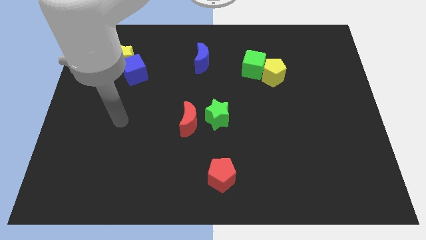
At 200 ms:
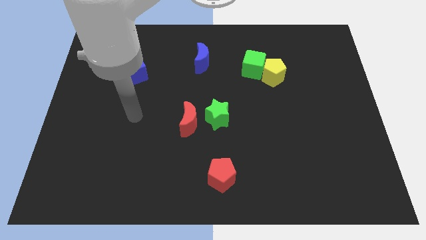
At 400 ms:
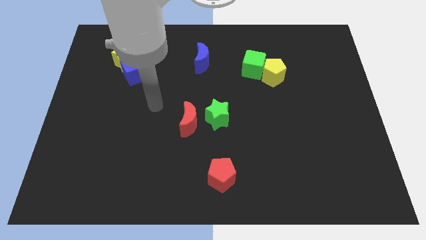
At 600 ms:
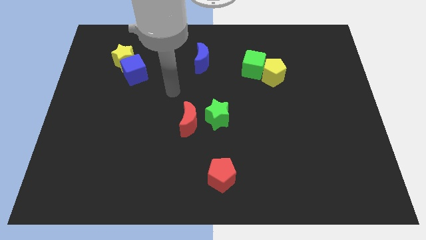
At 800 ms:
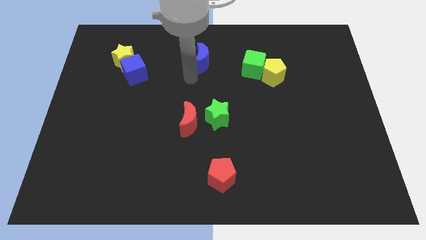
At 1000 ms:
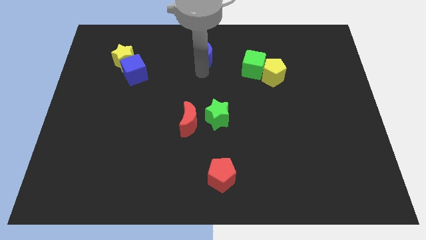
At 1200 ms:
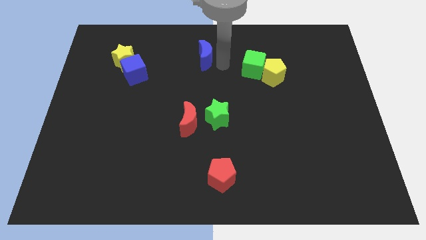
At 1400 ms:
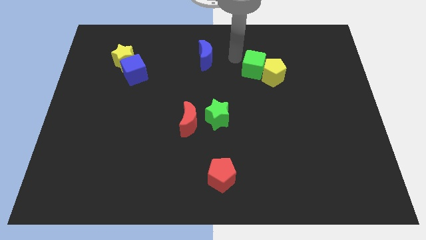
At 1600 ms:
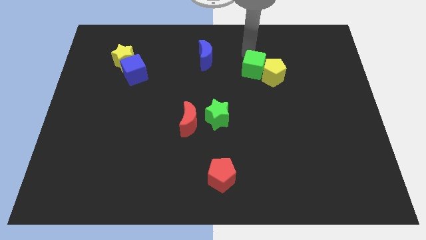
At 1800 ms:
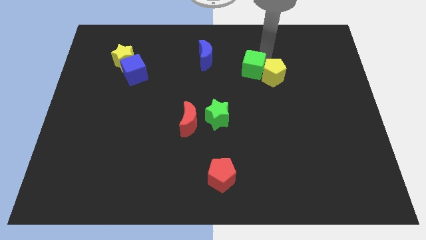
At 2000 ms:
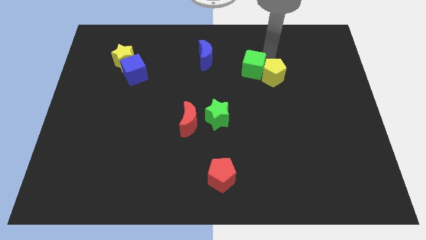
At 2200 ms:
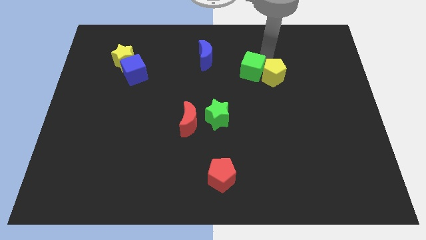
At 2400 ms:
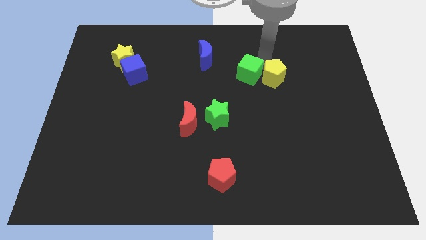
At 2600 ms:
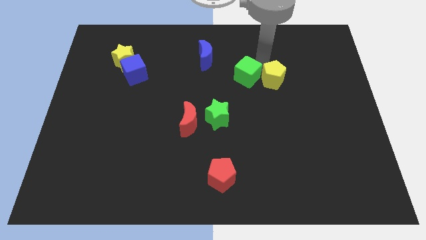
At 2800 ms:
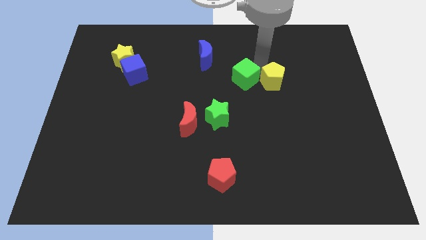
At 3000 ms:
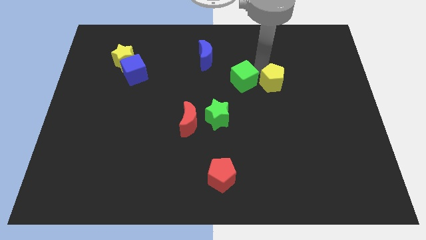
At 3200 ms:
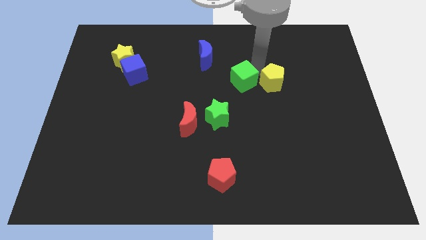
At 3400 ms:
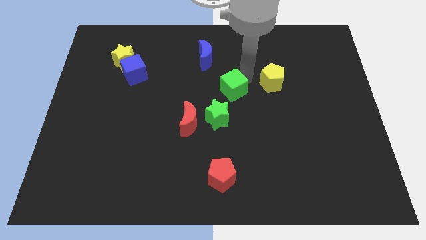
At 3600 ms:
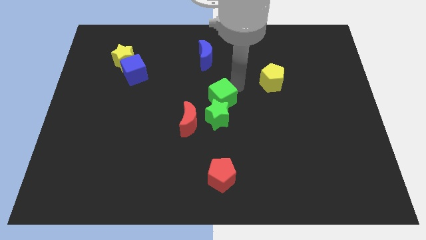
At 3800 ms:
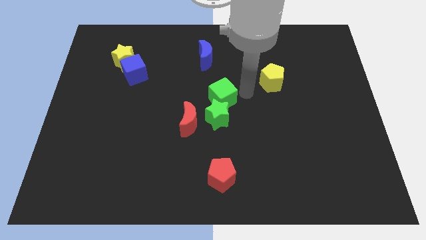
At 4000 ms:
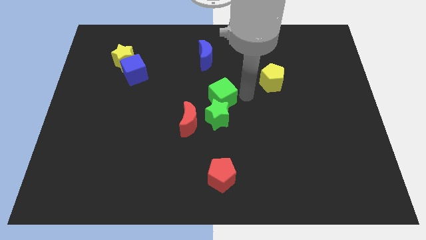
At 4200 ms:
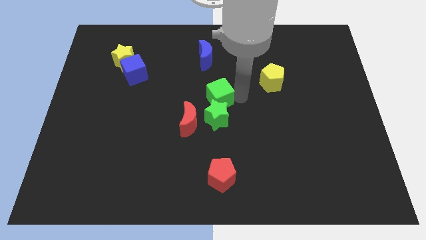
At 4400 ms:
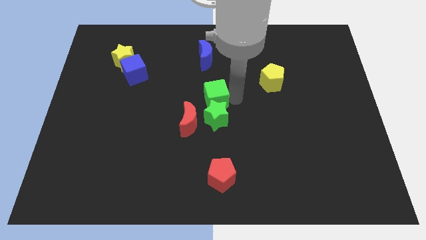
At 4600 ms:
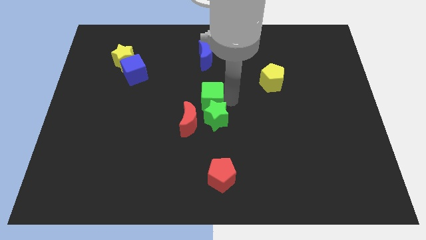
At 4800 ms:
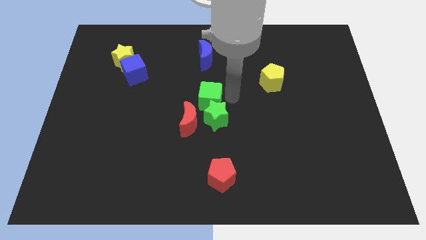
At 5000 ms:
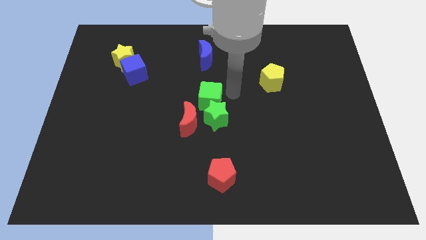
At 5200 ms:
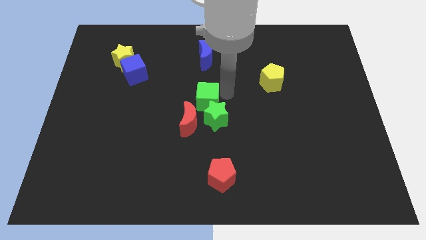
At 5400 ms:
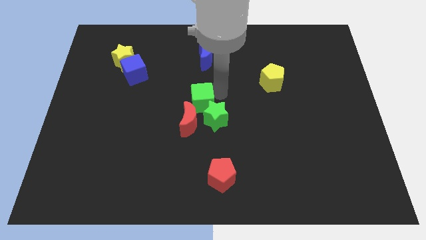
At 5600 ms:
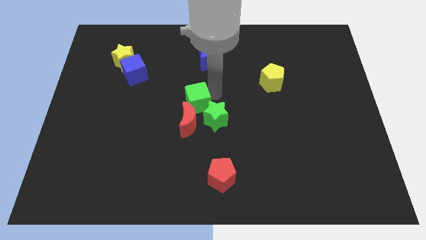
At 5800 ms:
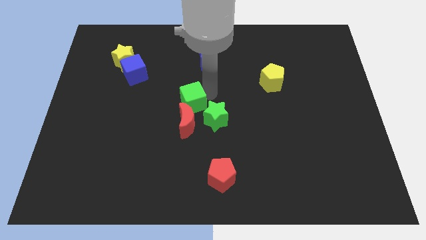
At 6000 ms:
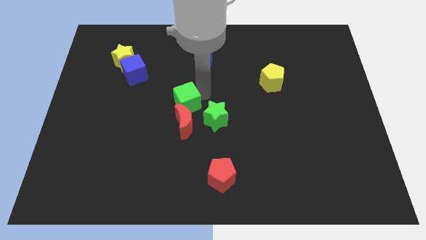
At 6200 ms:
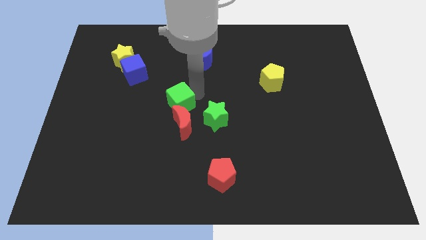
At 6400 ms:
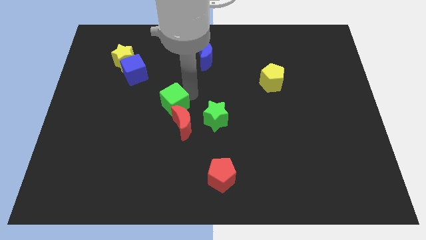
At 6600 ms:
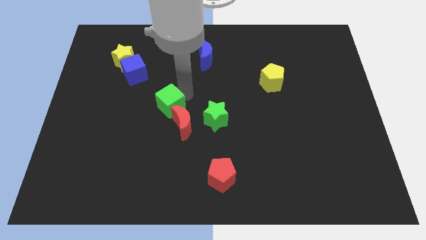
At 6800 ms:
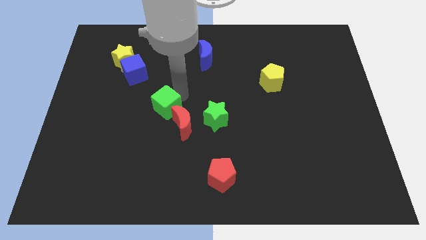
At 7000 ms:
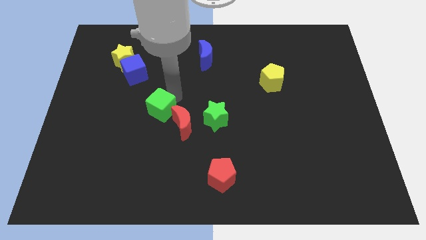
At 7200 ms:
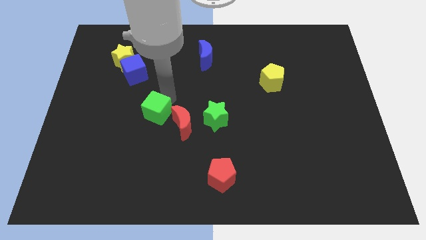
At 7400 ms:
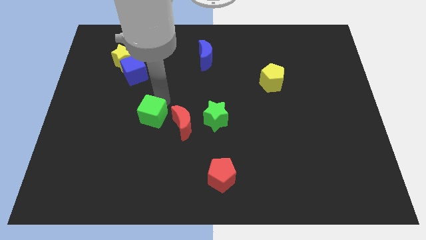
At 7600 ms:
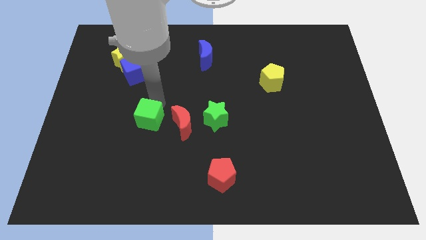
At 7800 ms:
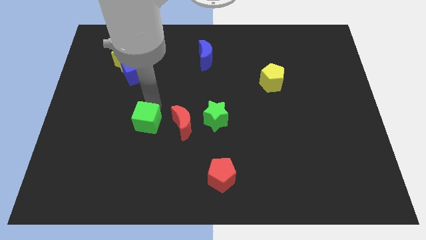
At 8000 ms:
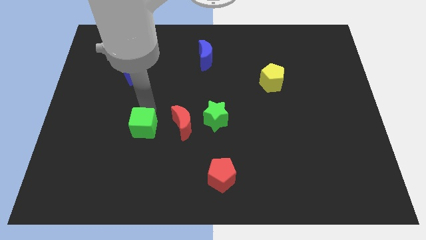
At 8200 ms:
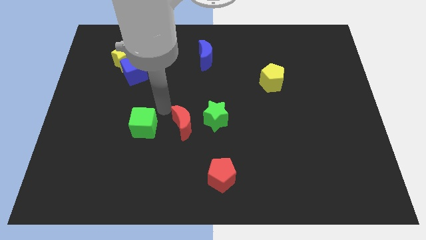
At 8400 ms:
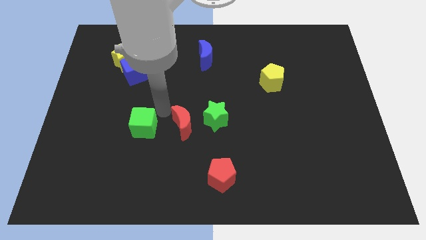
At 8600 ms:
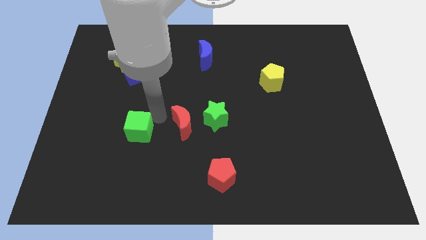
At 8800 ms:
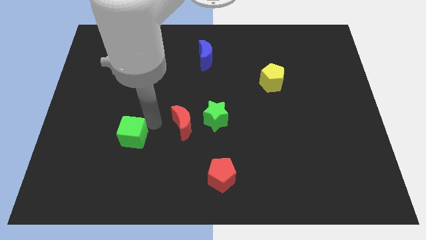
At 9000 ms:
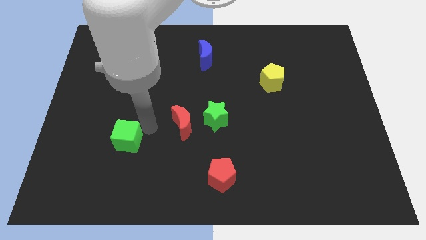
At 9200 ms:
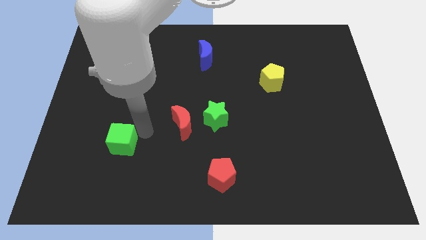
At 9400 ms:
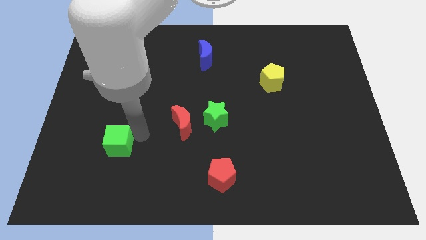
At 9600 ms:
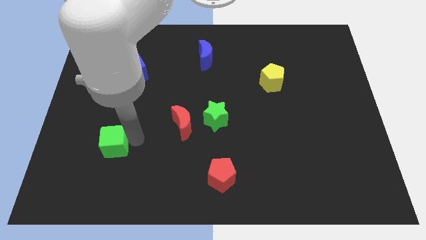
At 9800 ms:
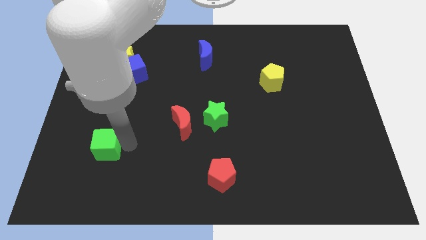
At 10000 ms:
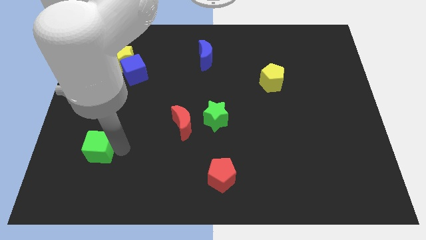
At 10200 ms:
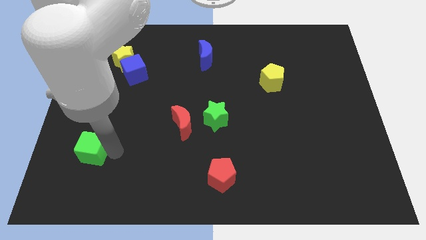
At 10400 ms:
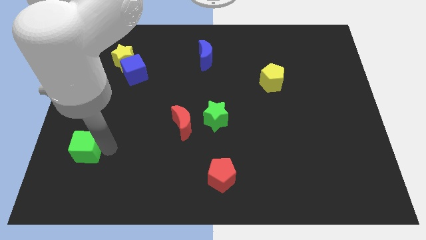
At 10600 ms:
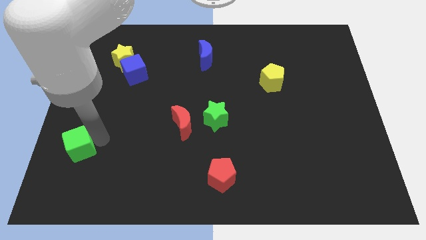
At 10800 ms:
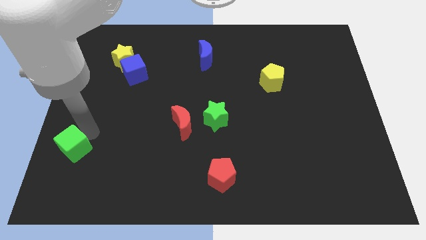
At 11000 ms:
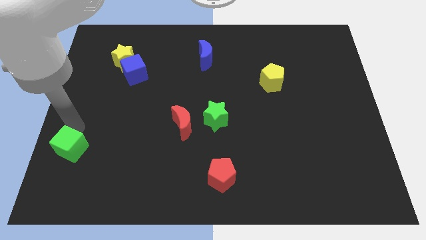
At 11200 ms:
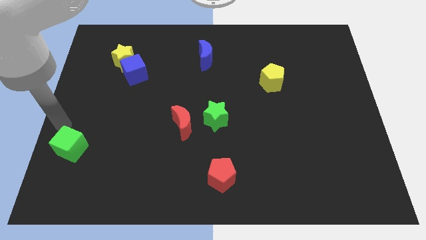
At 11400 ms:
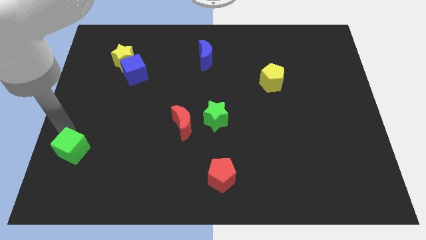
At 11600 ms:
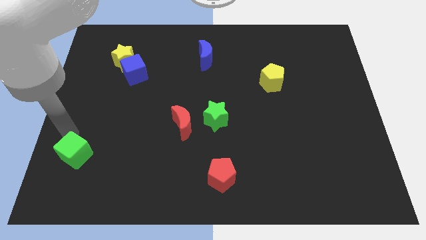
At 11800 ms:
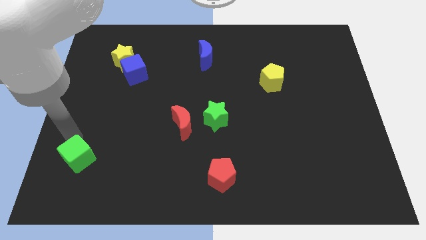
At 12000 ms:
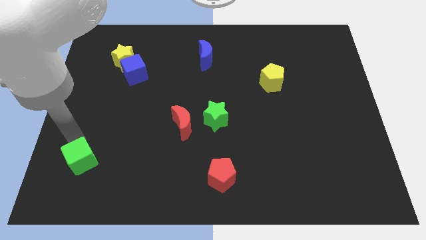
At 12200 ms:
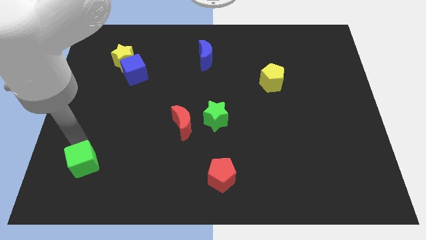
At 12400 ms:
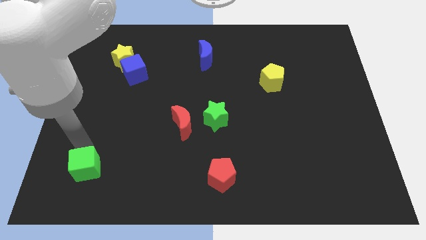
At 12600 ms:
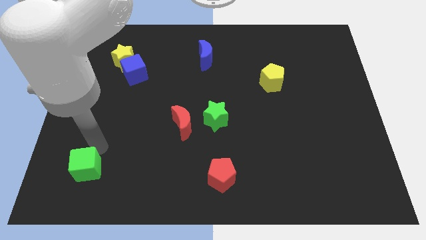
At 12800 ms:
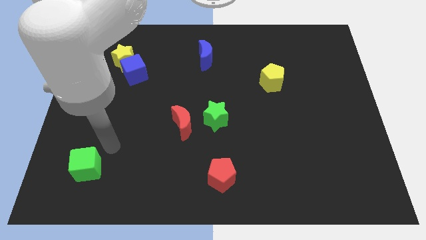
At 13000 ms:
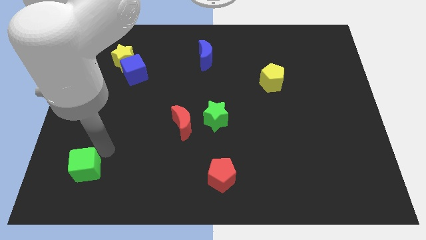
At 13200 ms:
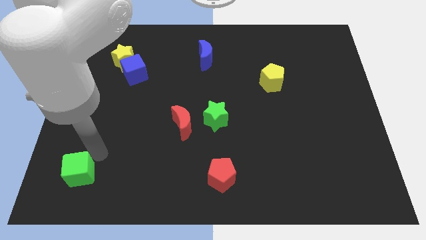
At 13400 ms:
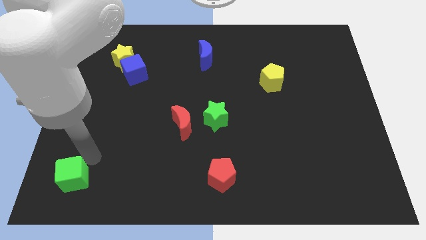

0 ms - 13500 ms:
push the green cube to the bottom left of the board
